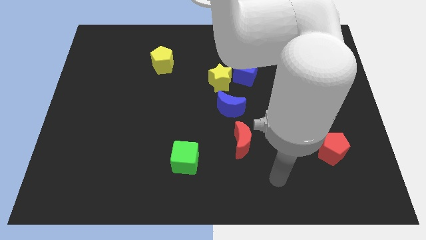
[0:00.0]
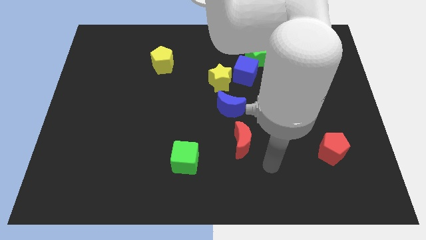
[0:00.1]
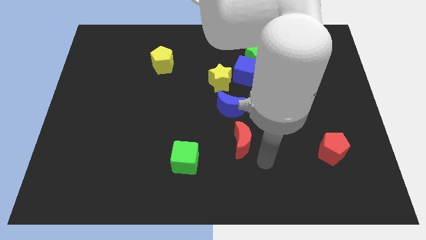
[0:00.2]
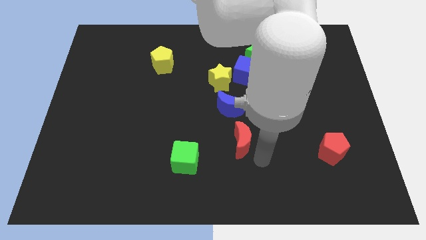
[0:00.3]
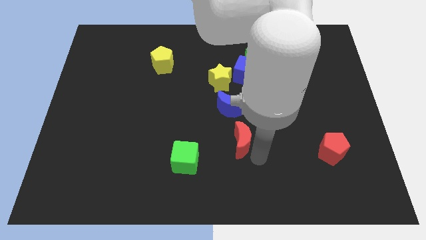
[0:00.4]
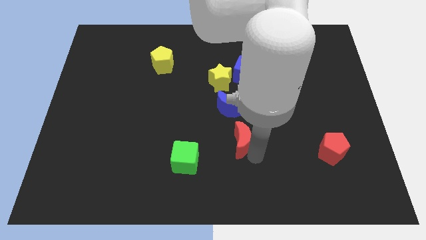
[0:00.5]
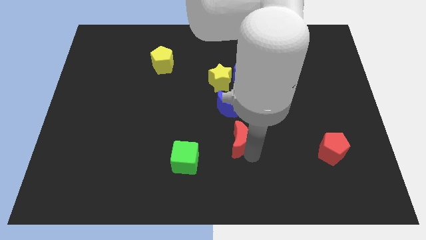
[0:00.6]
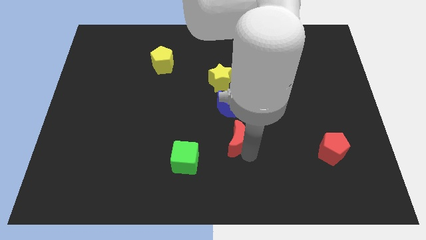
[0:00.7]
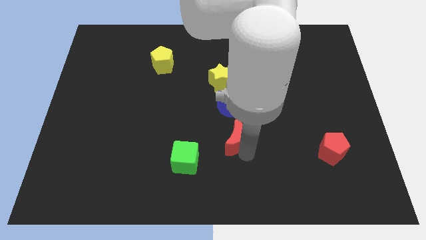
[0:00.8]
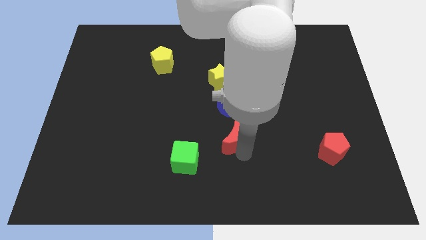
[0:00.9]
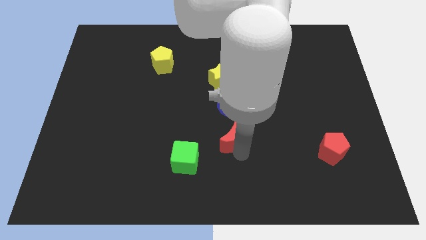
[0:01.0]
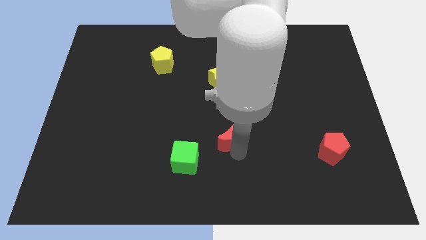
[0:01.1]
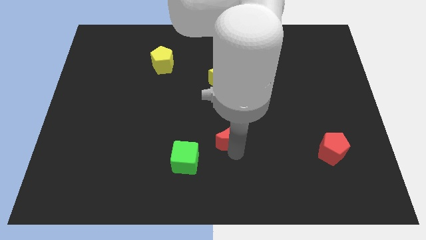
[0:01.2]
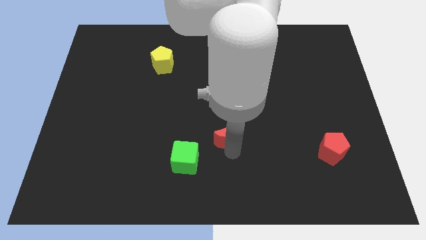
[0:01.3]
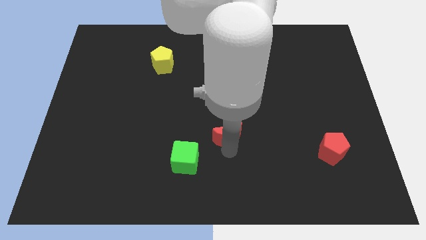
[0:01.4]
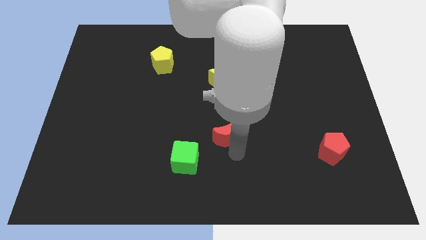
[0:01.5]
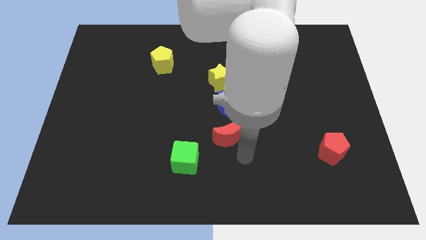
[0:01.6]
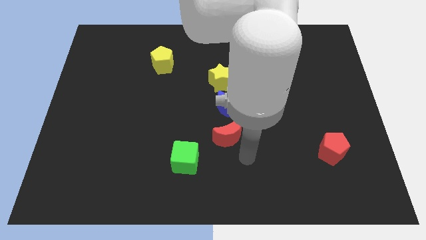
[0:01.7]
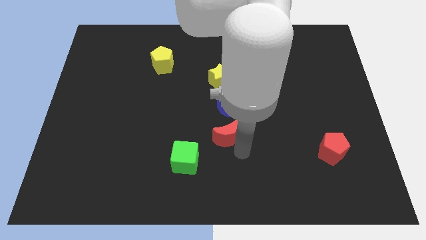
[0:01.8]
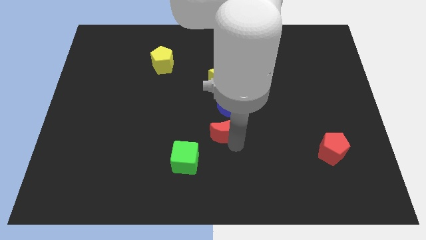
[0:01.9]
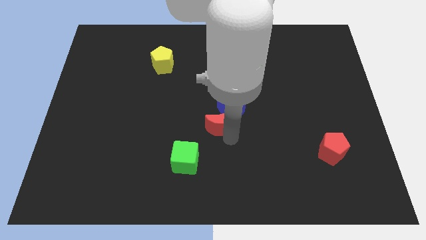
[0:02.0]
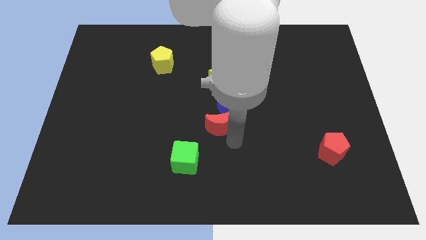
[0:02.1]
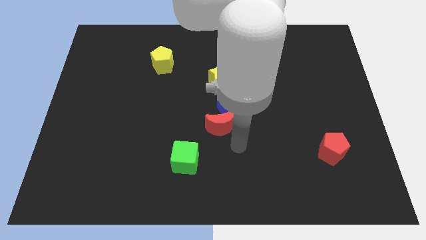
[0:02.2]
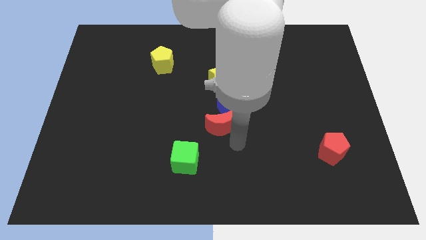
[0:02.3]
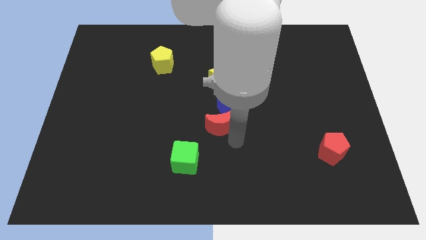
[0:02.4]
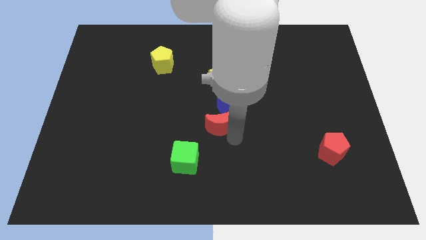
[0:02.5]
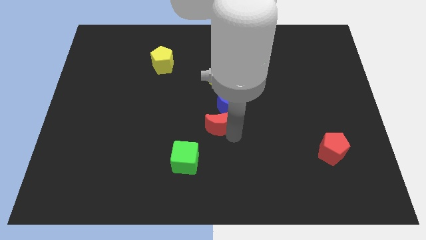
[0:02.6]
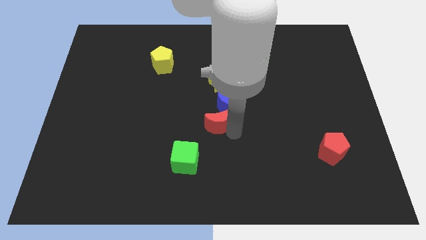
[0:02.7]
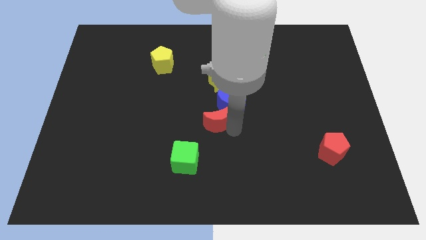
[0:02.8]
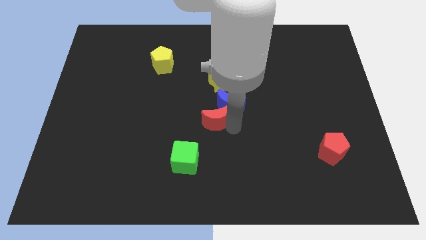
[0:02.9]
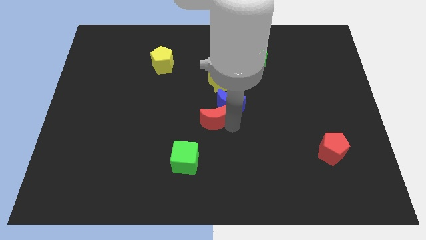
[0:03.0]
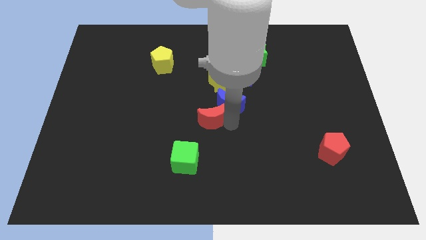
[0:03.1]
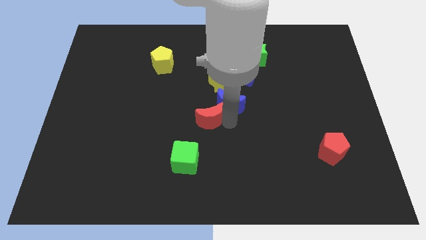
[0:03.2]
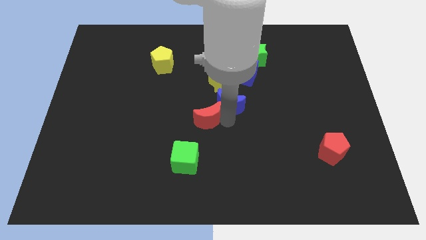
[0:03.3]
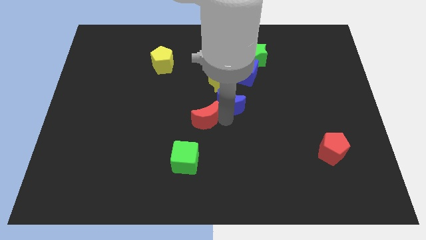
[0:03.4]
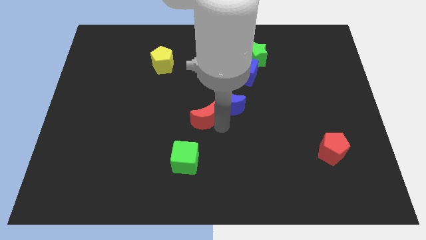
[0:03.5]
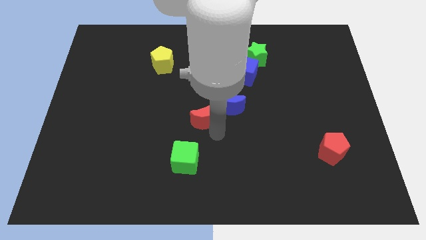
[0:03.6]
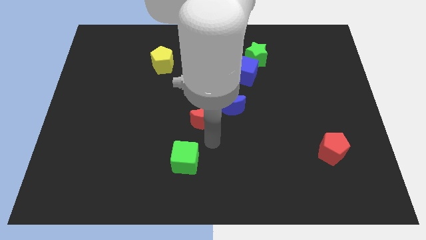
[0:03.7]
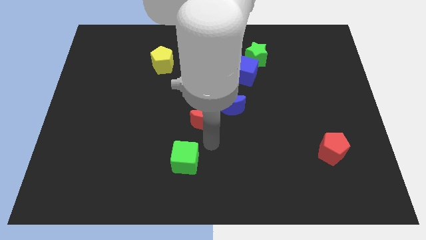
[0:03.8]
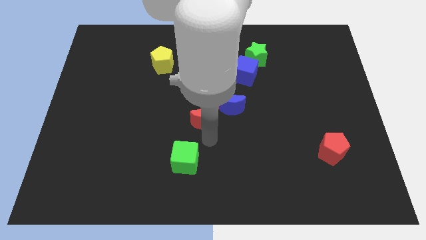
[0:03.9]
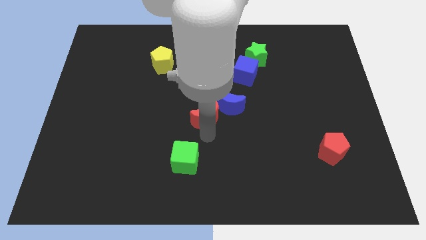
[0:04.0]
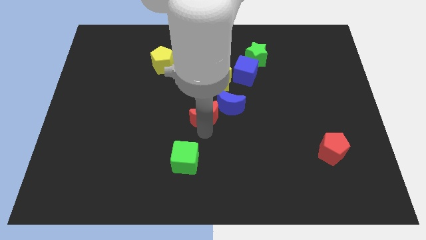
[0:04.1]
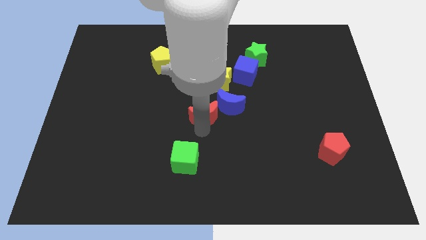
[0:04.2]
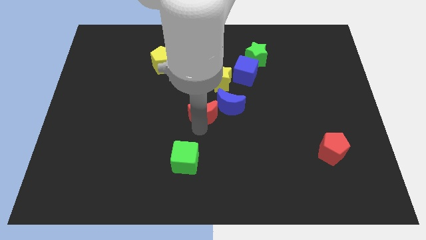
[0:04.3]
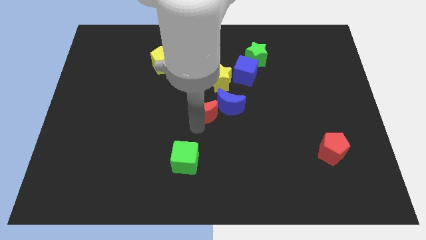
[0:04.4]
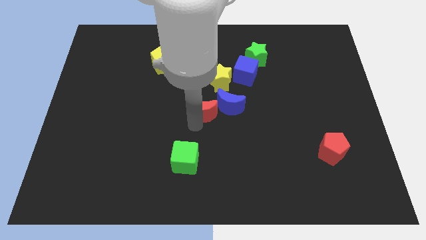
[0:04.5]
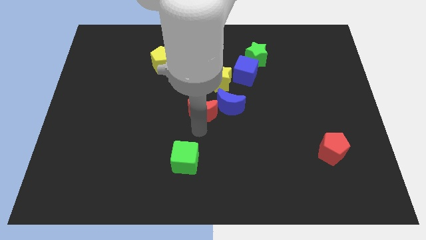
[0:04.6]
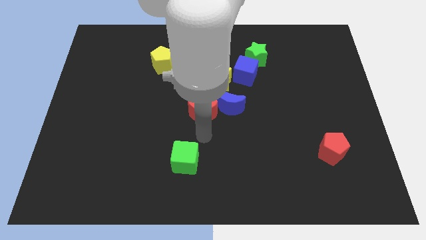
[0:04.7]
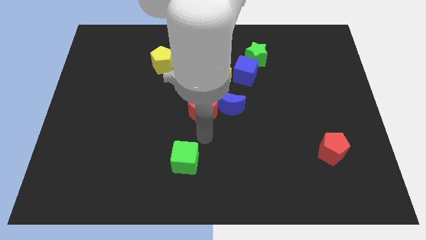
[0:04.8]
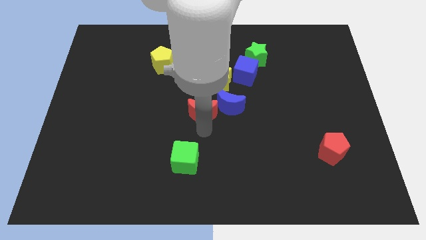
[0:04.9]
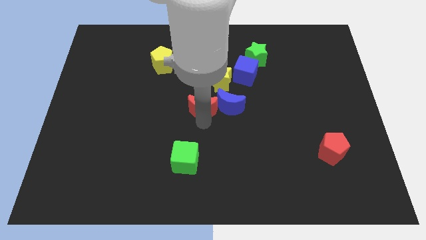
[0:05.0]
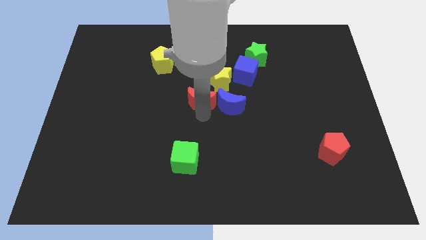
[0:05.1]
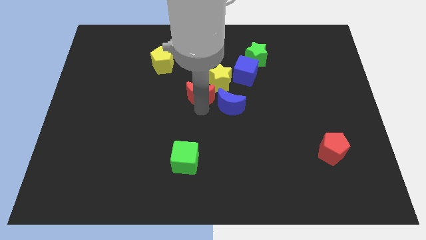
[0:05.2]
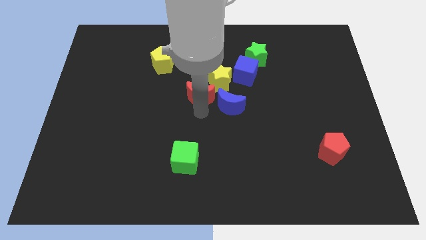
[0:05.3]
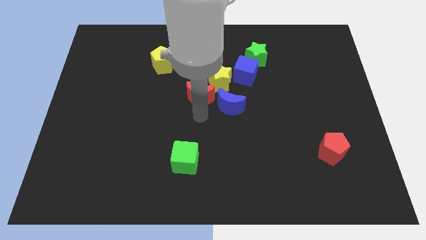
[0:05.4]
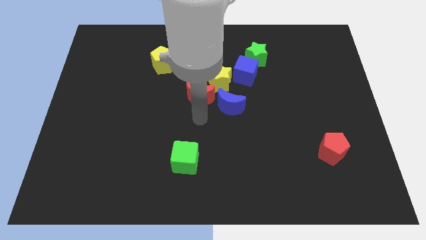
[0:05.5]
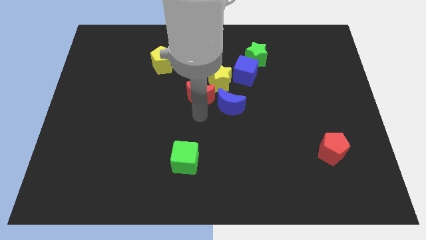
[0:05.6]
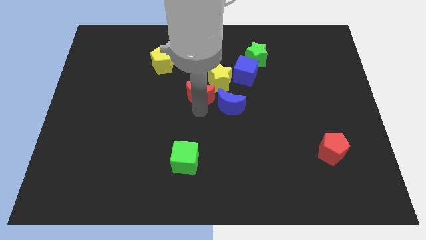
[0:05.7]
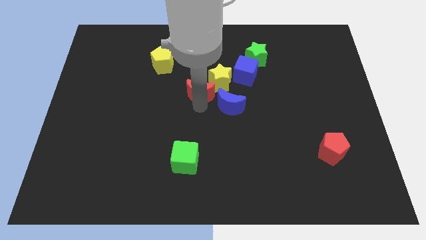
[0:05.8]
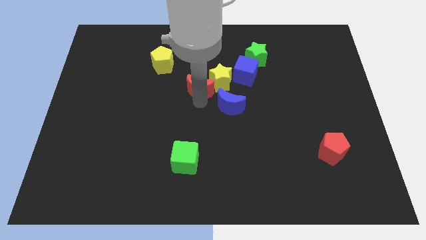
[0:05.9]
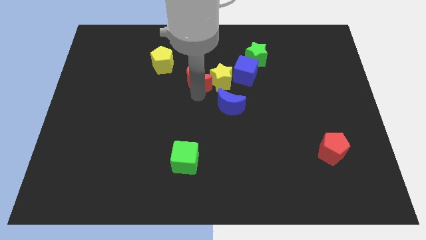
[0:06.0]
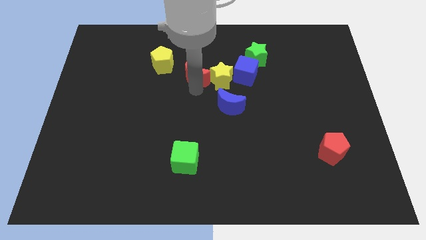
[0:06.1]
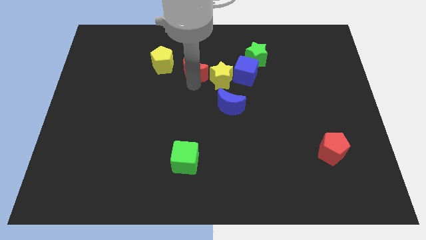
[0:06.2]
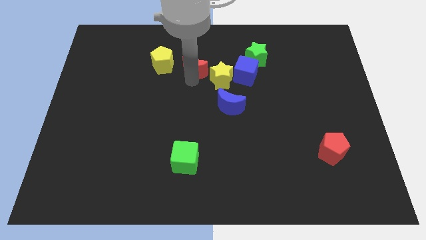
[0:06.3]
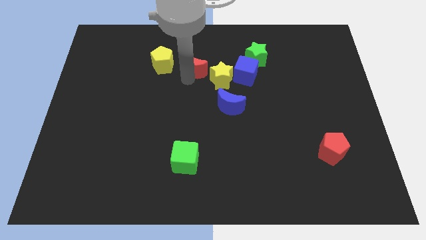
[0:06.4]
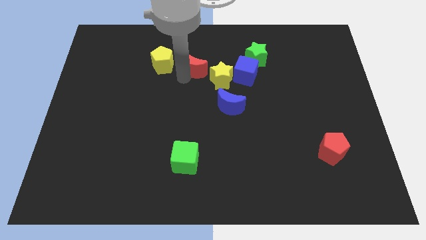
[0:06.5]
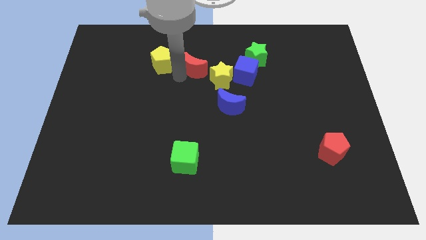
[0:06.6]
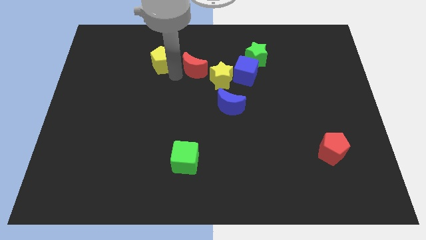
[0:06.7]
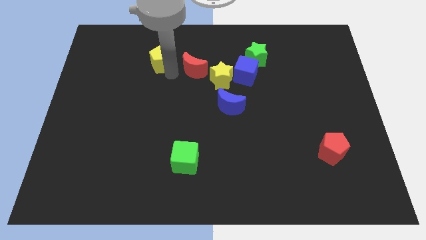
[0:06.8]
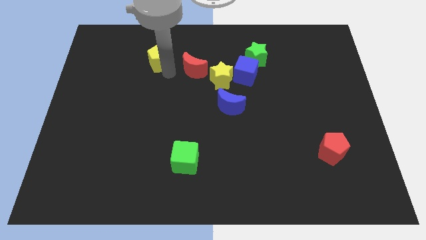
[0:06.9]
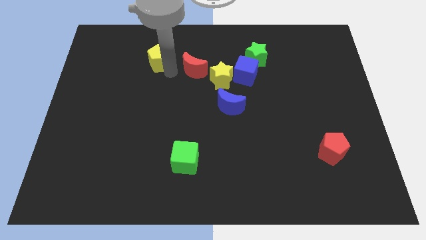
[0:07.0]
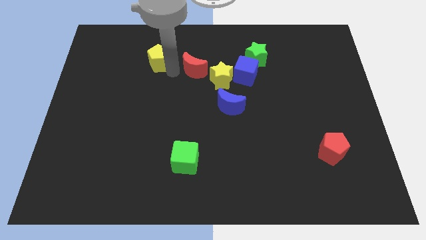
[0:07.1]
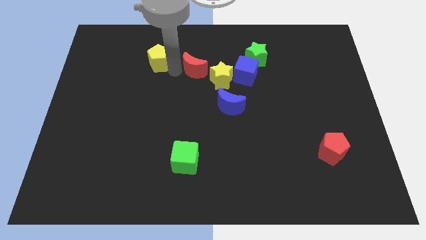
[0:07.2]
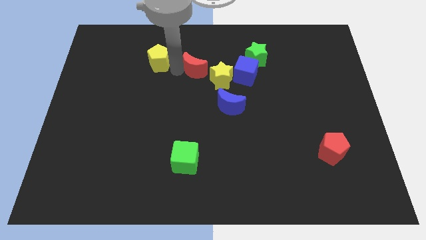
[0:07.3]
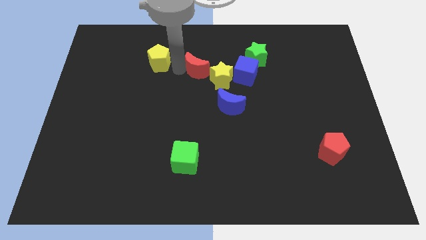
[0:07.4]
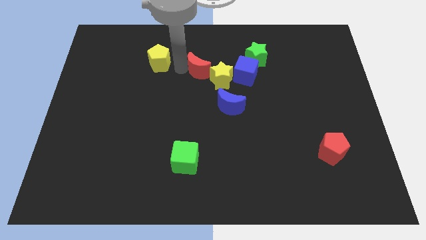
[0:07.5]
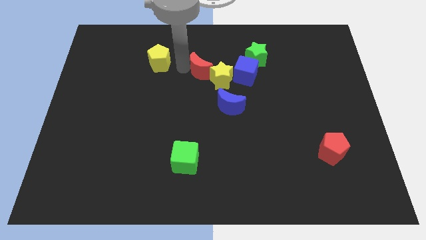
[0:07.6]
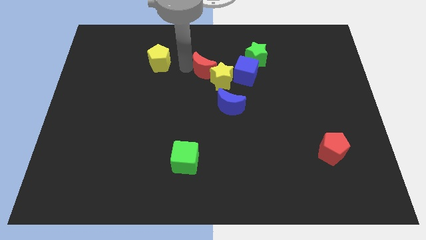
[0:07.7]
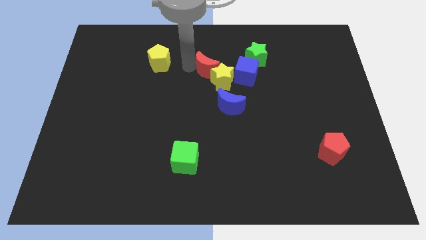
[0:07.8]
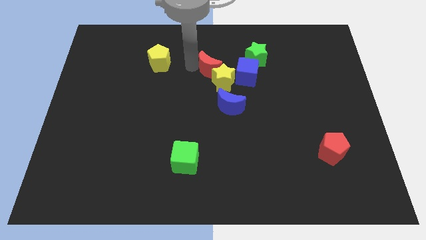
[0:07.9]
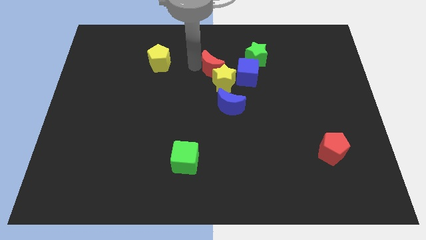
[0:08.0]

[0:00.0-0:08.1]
push the red moon to the top left of the blue cube
